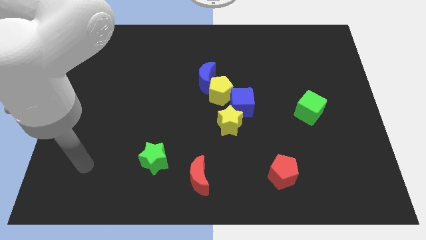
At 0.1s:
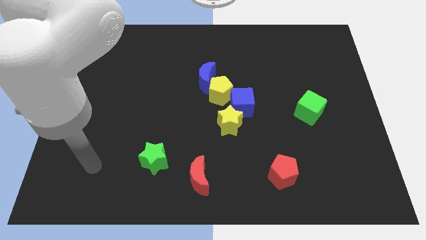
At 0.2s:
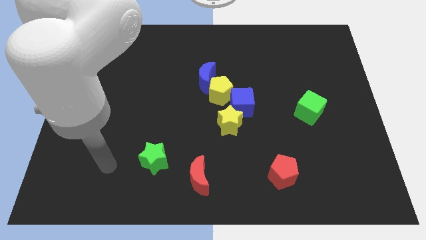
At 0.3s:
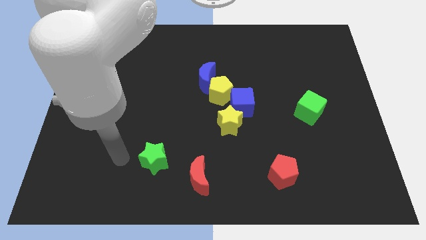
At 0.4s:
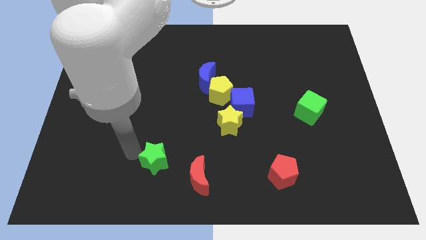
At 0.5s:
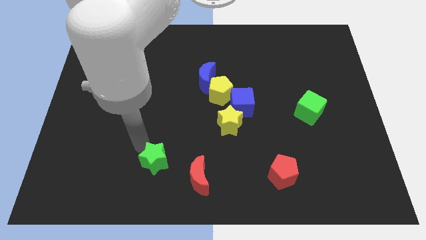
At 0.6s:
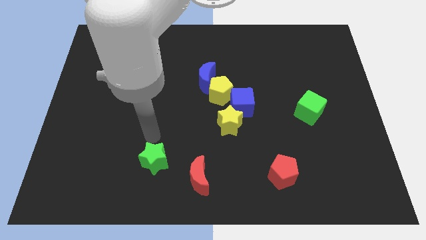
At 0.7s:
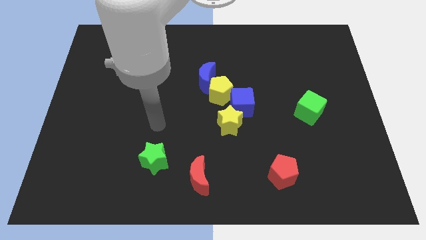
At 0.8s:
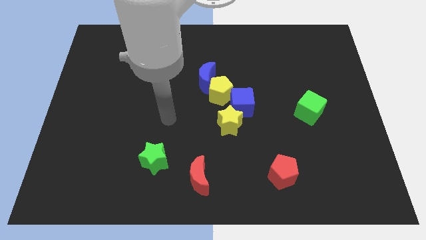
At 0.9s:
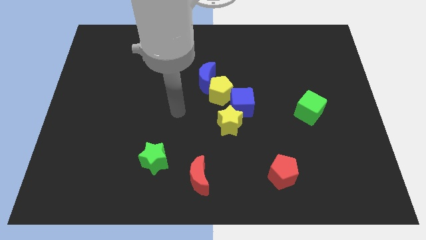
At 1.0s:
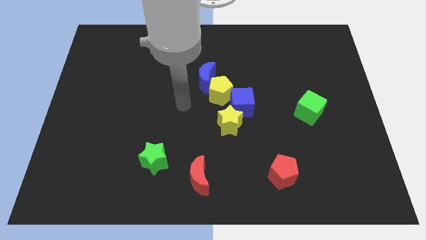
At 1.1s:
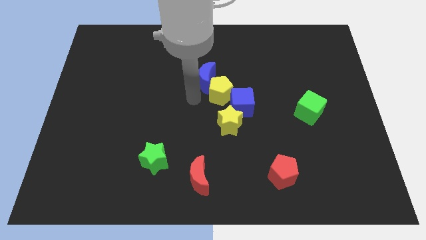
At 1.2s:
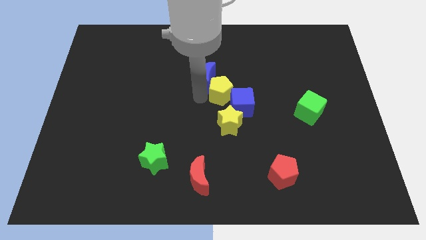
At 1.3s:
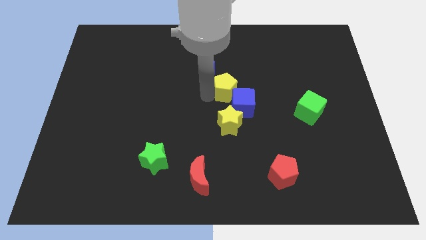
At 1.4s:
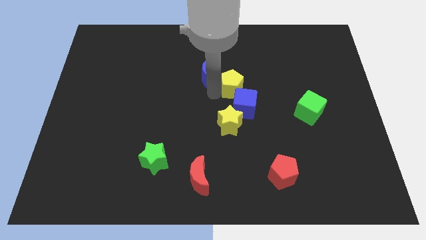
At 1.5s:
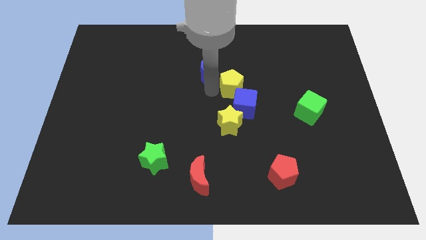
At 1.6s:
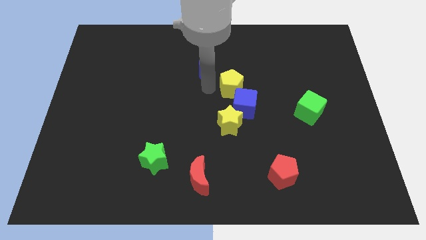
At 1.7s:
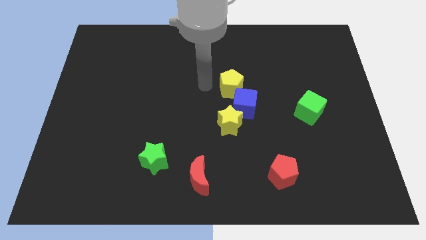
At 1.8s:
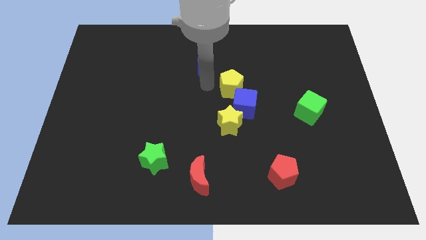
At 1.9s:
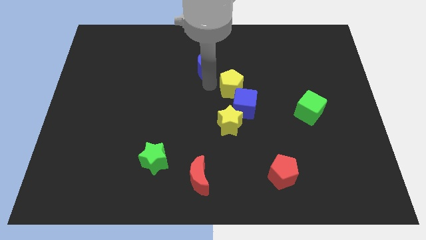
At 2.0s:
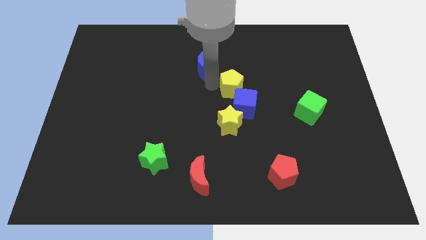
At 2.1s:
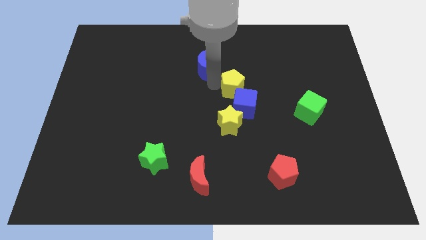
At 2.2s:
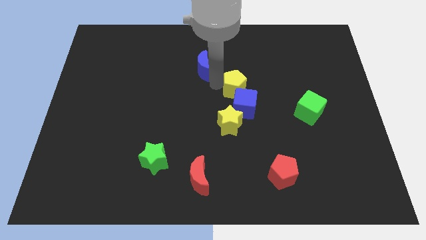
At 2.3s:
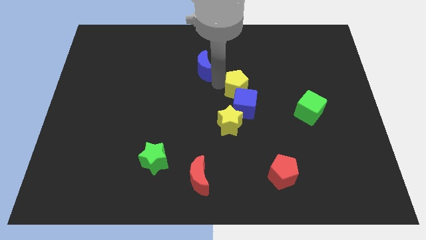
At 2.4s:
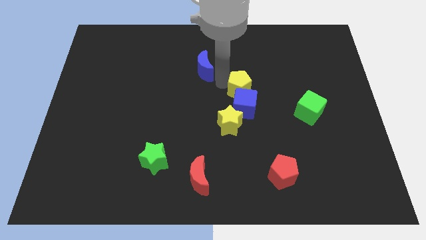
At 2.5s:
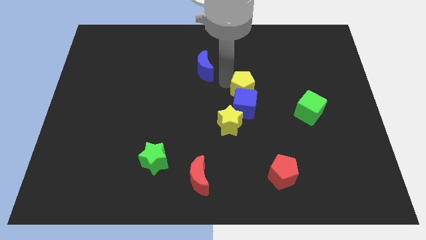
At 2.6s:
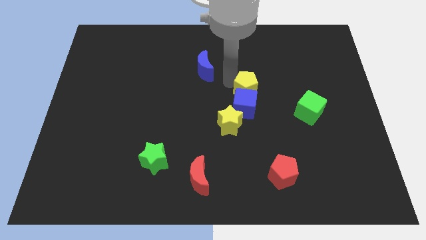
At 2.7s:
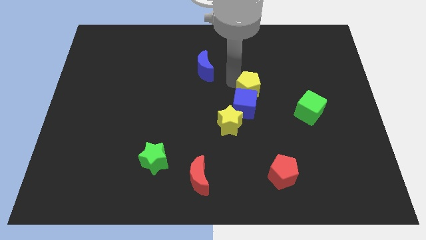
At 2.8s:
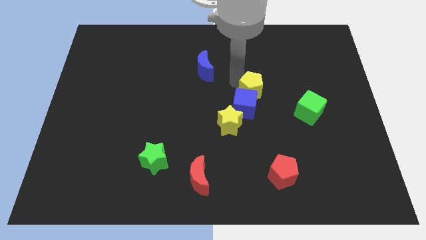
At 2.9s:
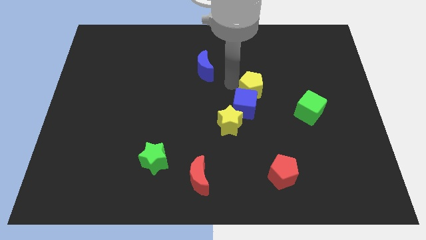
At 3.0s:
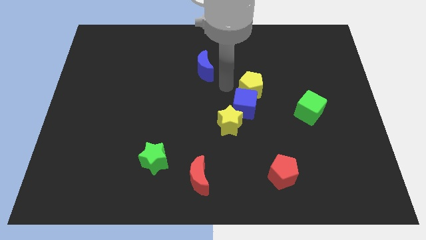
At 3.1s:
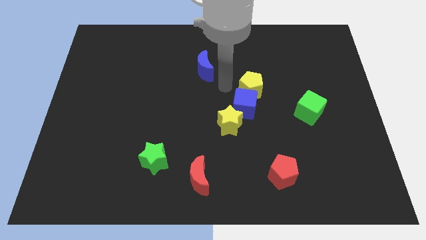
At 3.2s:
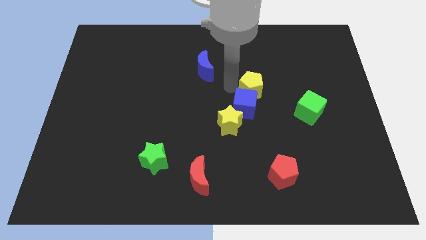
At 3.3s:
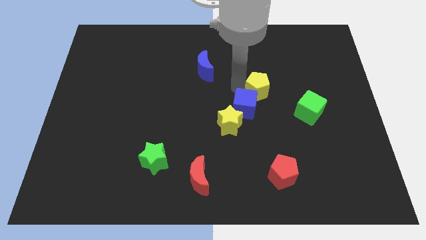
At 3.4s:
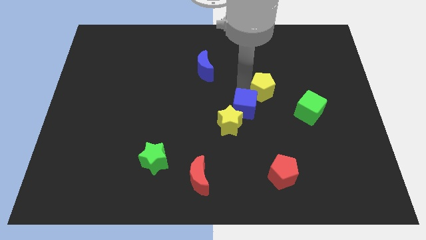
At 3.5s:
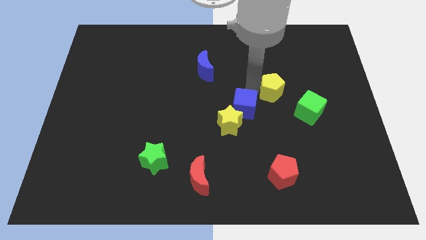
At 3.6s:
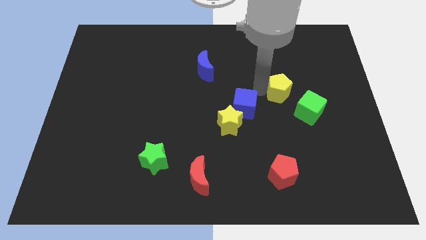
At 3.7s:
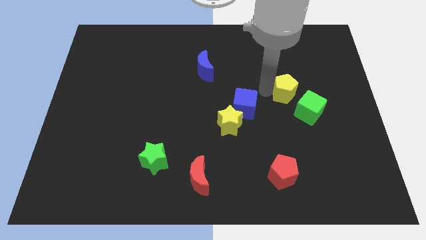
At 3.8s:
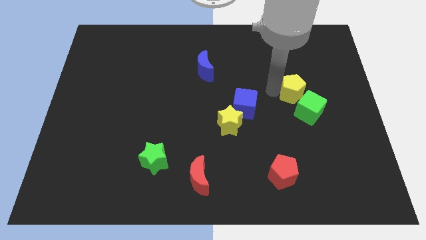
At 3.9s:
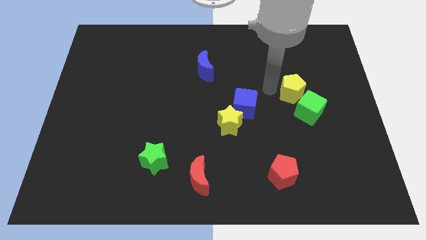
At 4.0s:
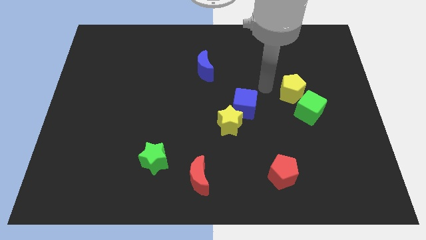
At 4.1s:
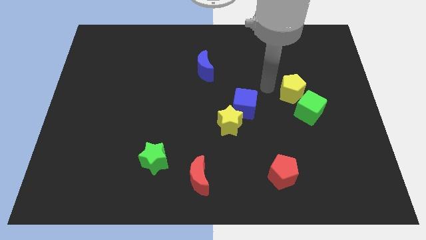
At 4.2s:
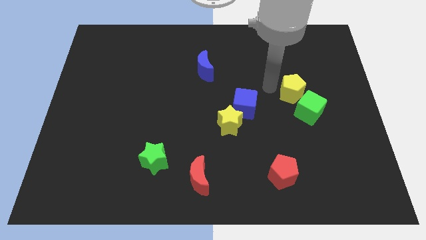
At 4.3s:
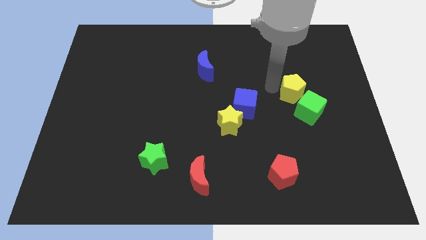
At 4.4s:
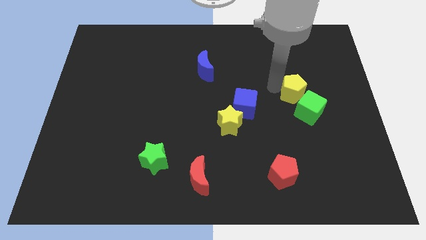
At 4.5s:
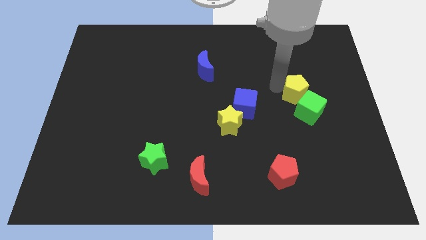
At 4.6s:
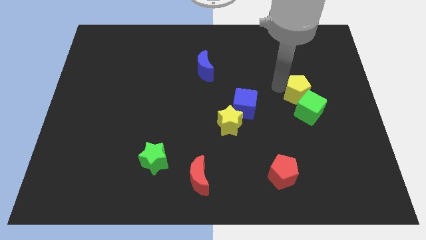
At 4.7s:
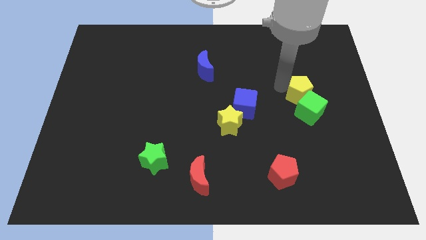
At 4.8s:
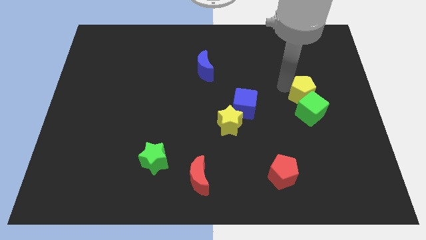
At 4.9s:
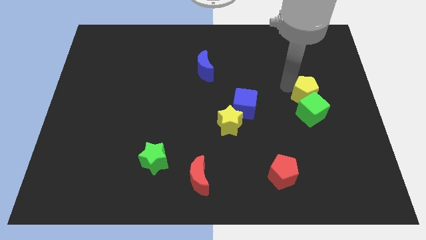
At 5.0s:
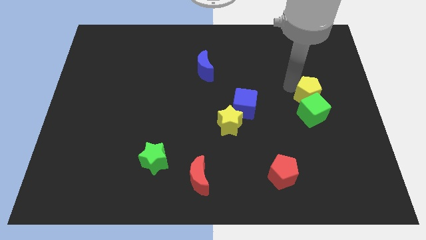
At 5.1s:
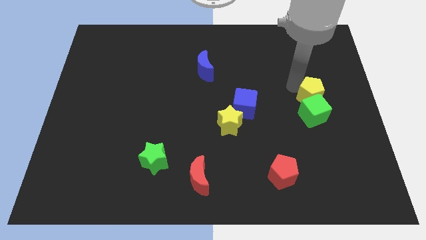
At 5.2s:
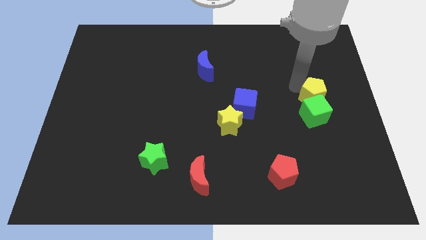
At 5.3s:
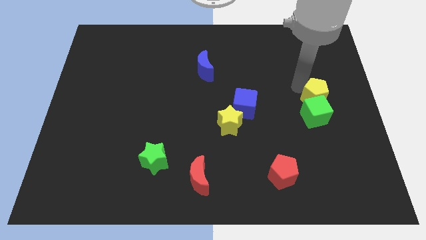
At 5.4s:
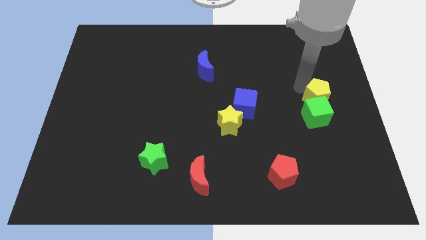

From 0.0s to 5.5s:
put the yellow pentagon to the right side
